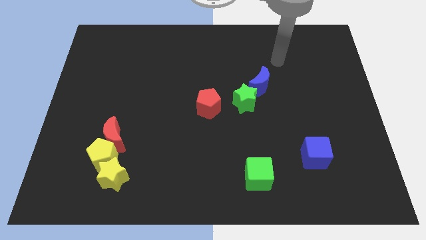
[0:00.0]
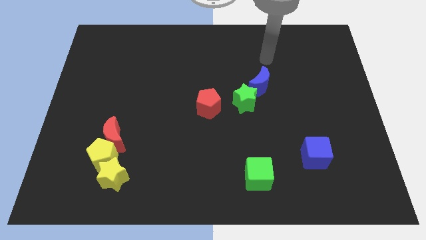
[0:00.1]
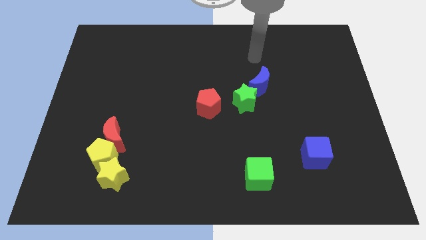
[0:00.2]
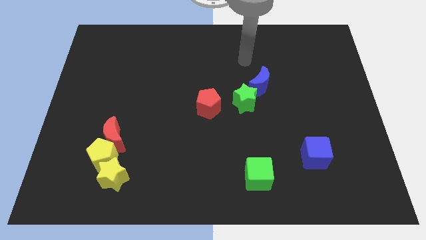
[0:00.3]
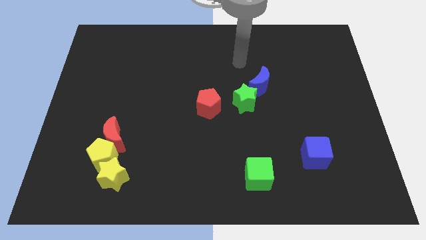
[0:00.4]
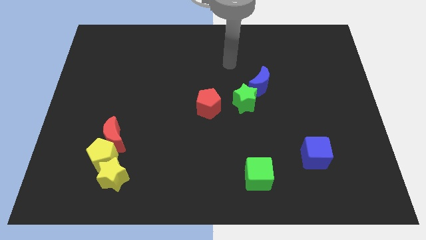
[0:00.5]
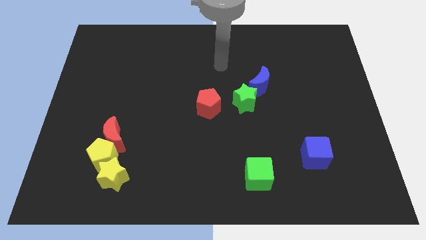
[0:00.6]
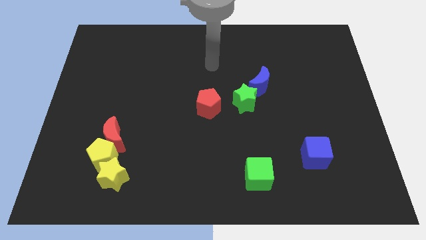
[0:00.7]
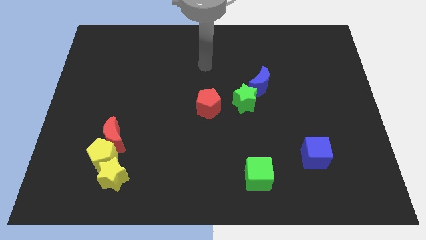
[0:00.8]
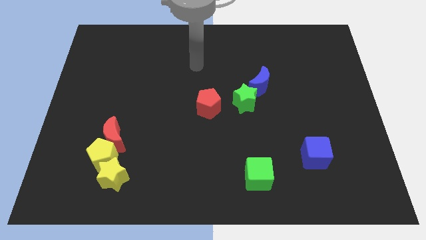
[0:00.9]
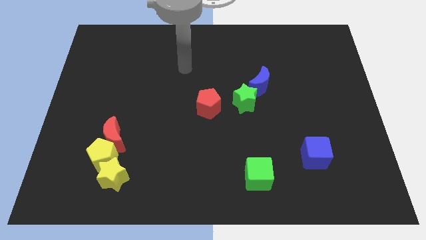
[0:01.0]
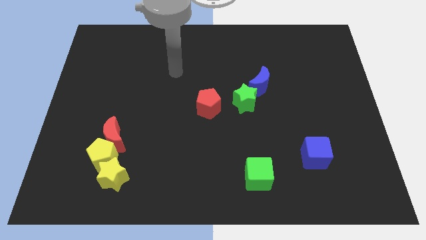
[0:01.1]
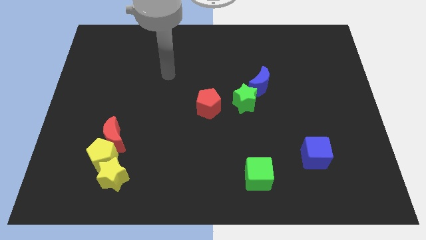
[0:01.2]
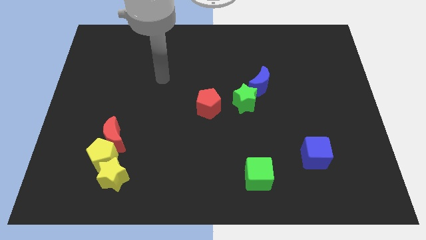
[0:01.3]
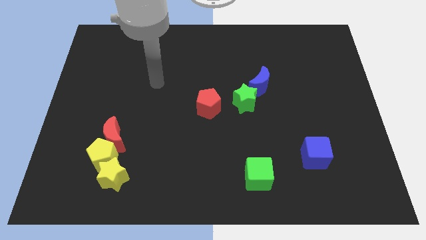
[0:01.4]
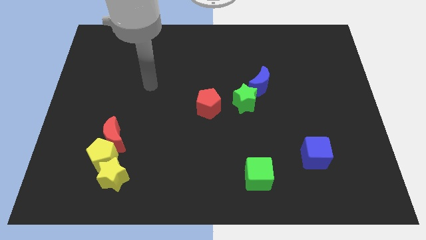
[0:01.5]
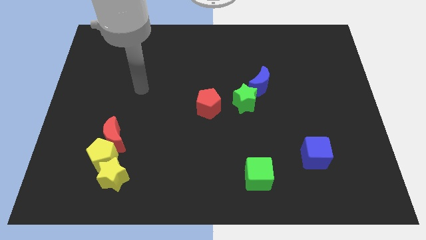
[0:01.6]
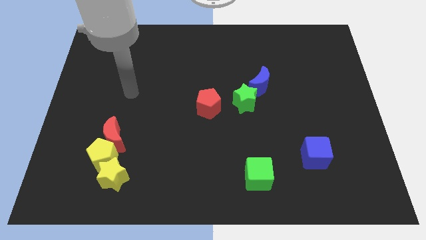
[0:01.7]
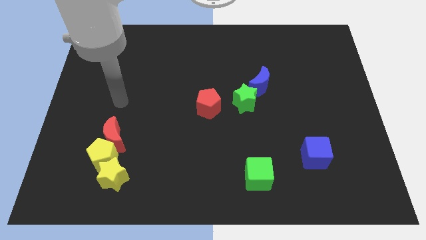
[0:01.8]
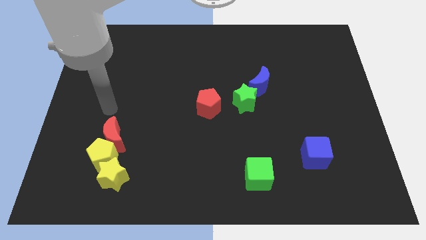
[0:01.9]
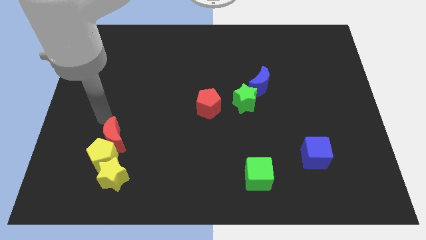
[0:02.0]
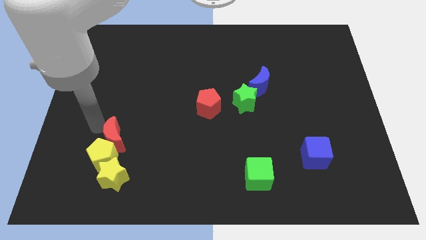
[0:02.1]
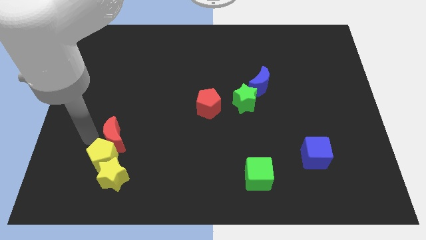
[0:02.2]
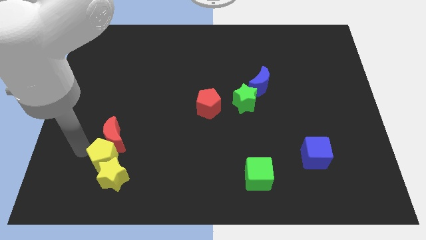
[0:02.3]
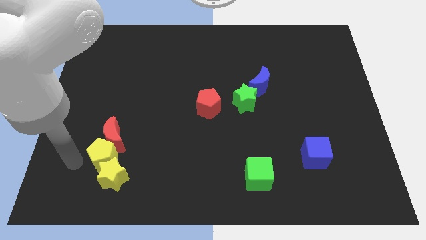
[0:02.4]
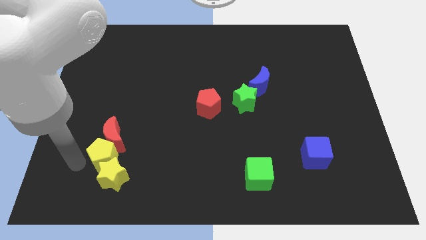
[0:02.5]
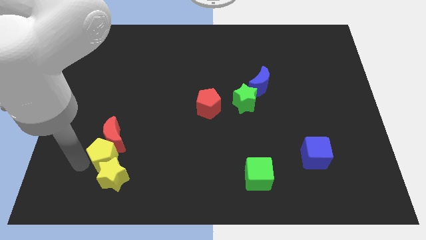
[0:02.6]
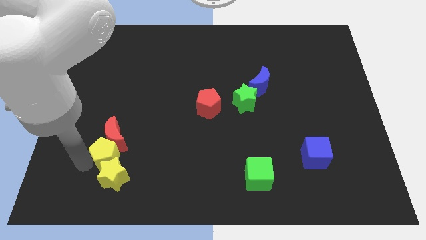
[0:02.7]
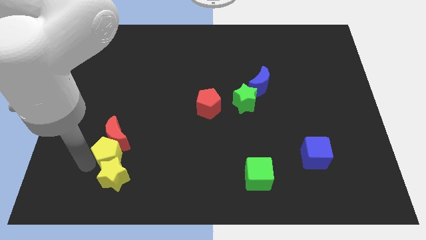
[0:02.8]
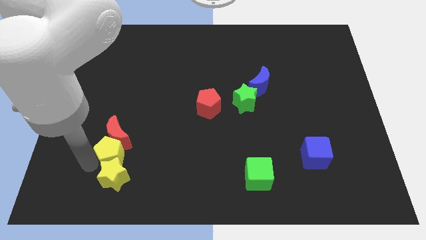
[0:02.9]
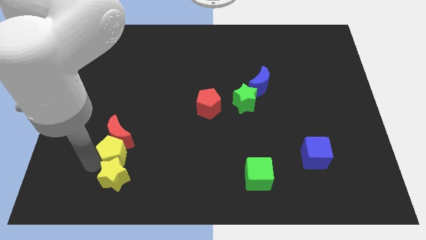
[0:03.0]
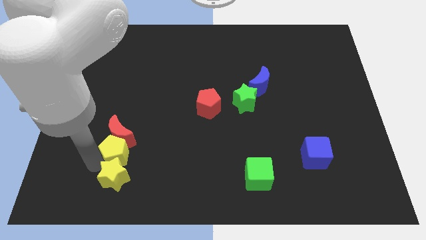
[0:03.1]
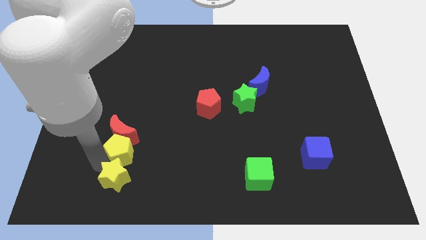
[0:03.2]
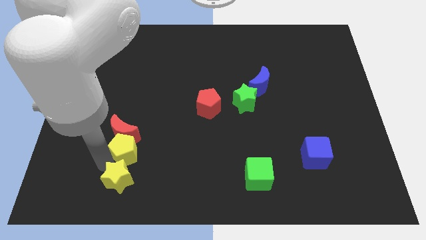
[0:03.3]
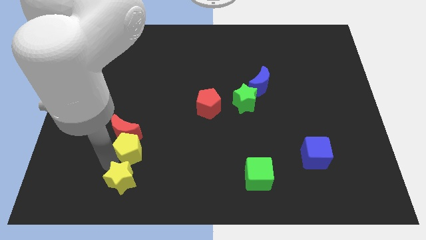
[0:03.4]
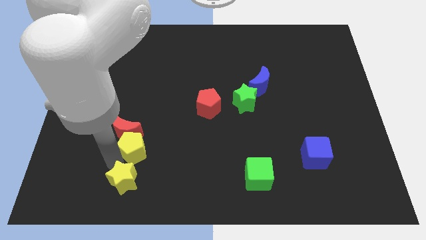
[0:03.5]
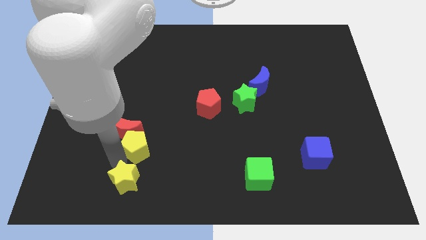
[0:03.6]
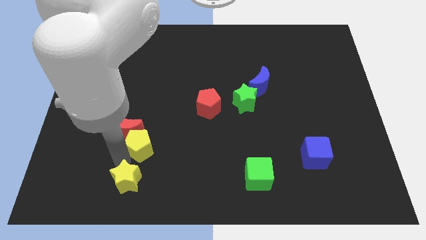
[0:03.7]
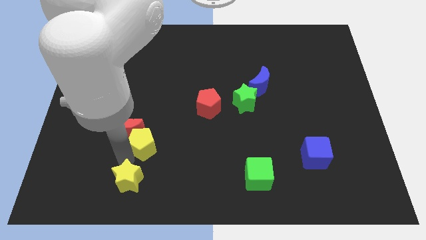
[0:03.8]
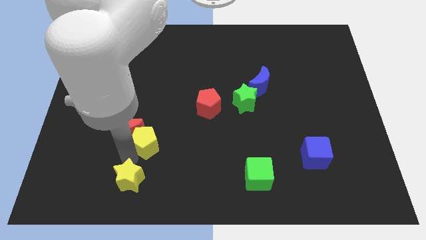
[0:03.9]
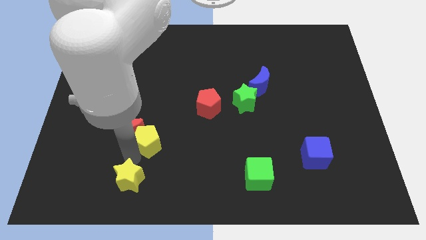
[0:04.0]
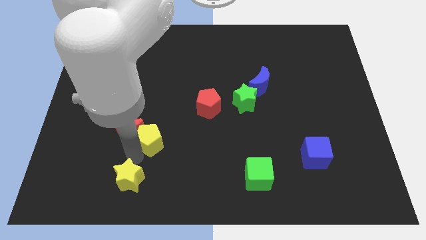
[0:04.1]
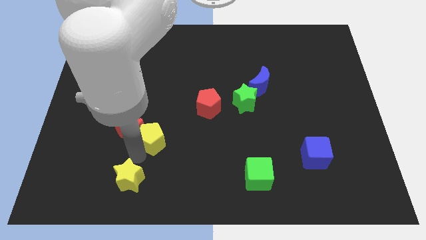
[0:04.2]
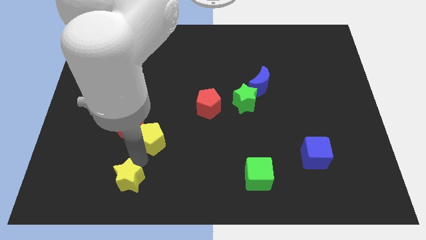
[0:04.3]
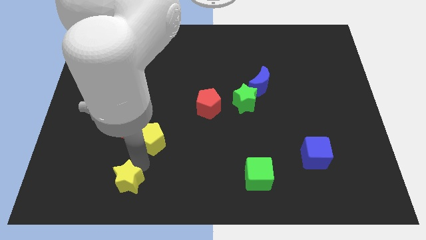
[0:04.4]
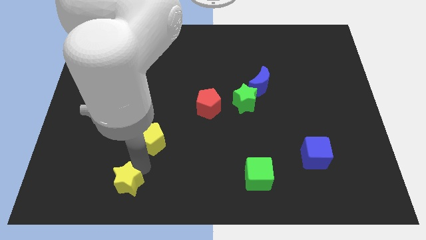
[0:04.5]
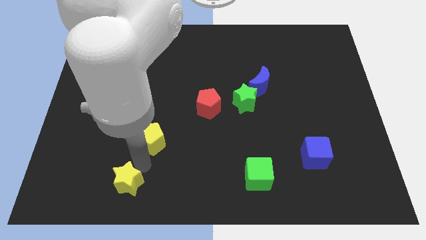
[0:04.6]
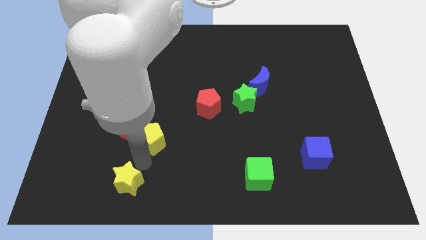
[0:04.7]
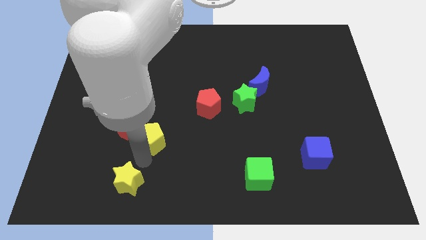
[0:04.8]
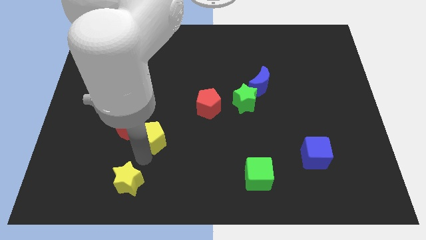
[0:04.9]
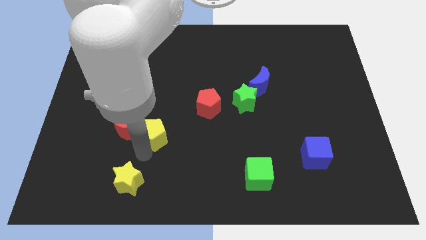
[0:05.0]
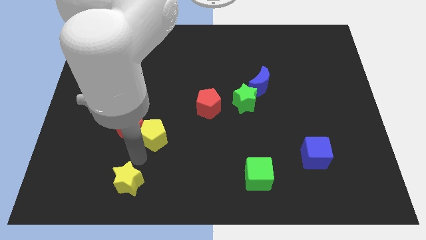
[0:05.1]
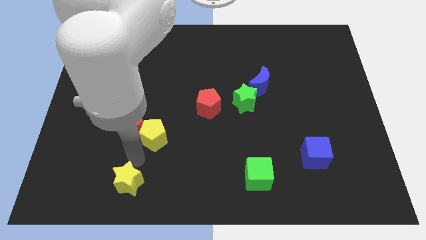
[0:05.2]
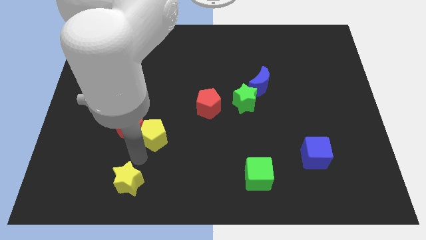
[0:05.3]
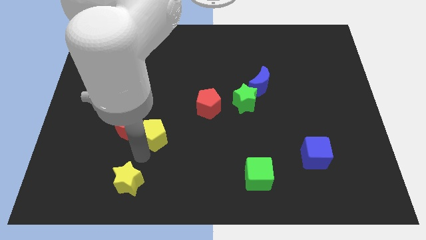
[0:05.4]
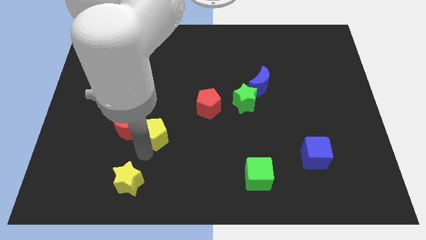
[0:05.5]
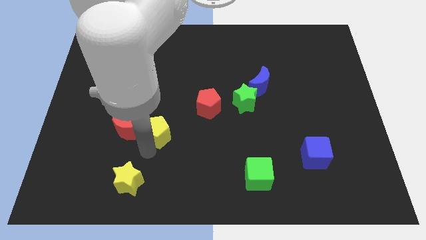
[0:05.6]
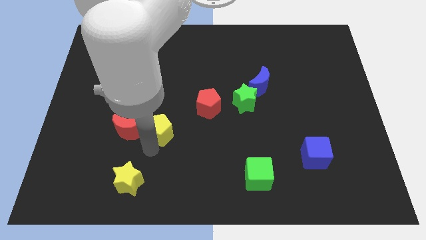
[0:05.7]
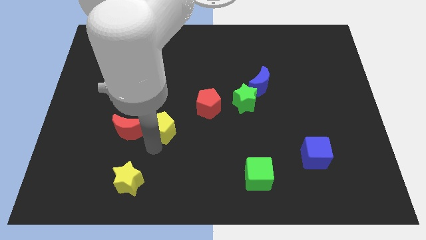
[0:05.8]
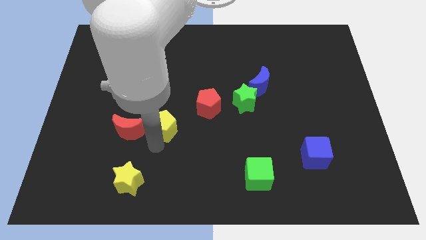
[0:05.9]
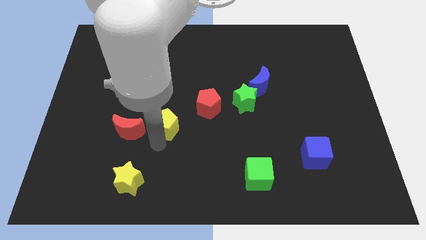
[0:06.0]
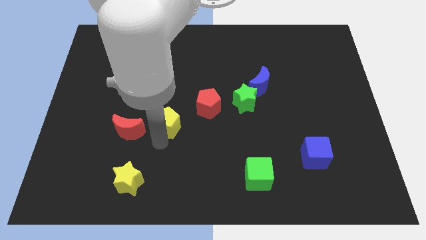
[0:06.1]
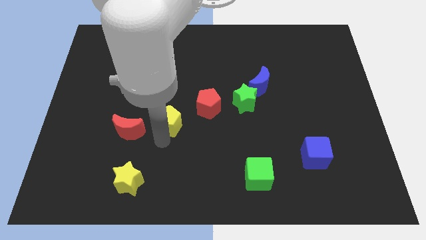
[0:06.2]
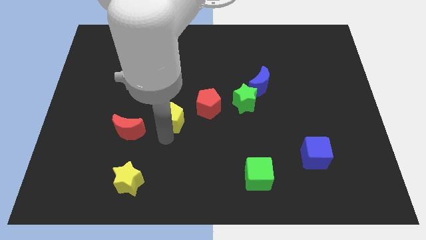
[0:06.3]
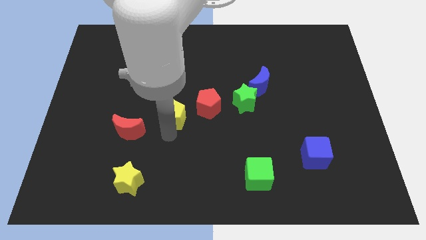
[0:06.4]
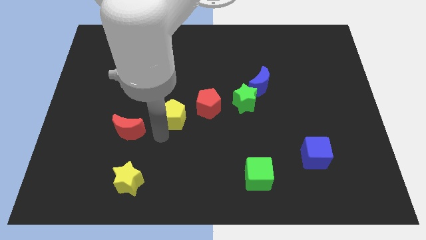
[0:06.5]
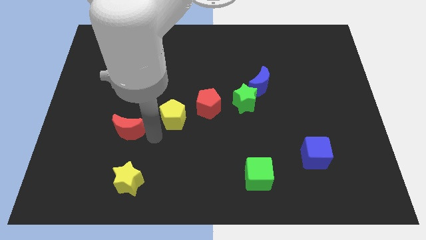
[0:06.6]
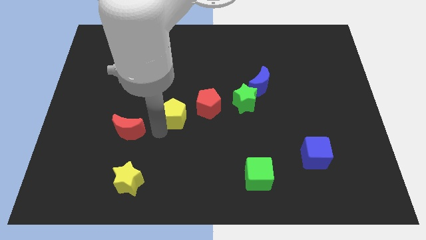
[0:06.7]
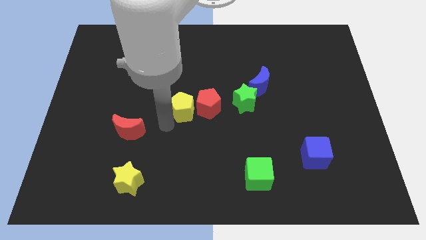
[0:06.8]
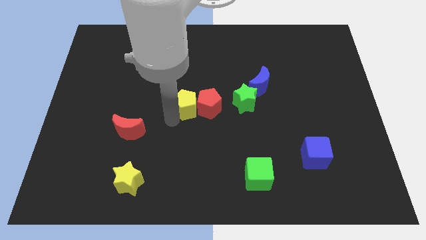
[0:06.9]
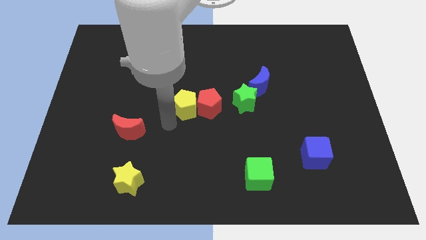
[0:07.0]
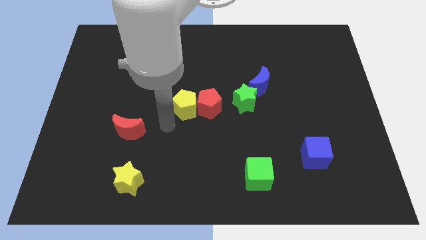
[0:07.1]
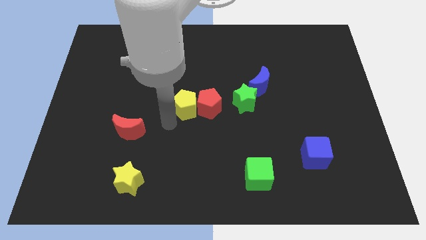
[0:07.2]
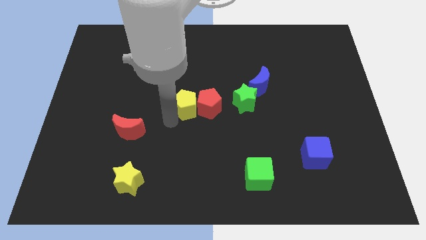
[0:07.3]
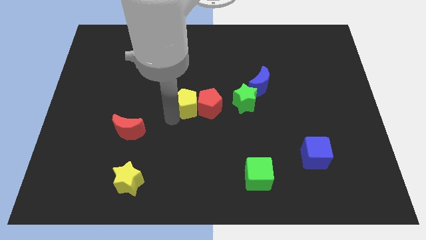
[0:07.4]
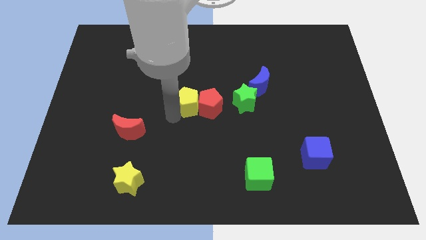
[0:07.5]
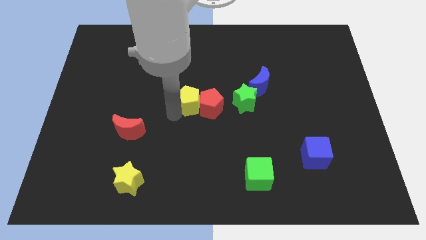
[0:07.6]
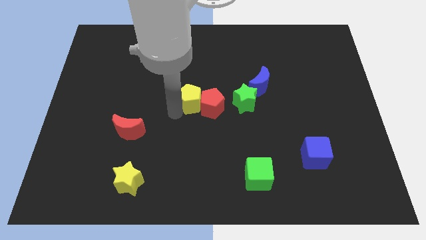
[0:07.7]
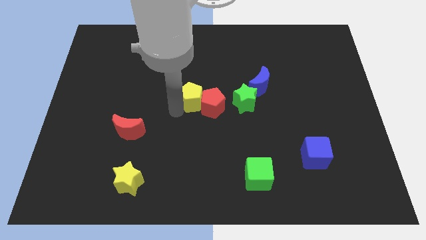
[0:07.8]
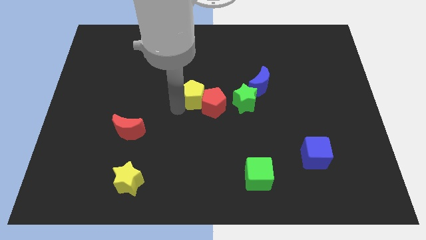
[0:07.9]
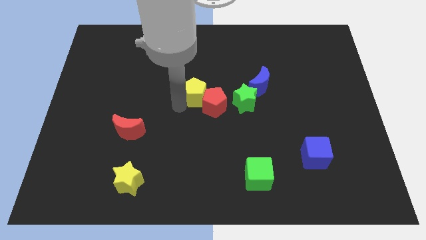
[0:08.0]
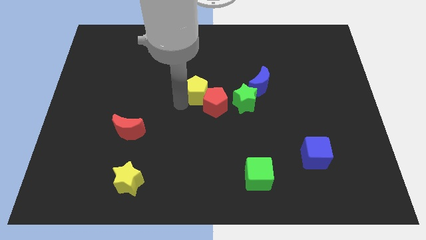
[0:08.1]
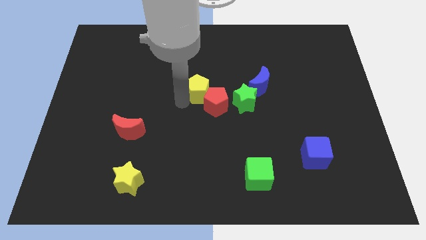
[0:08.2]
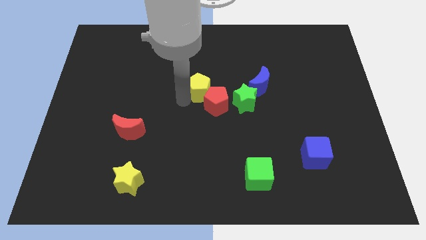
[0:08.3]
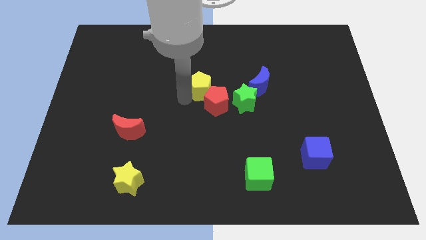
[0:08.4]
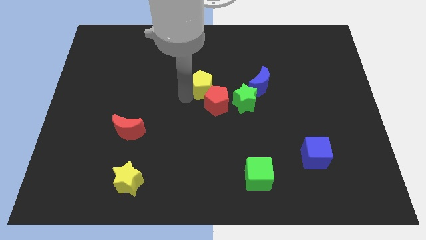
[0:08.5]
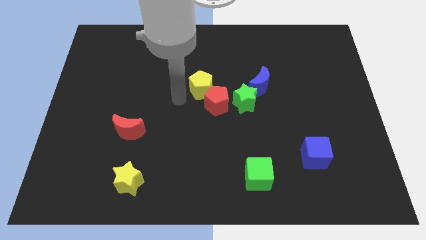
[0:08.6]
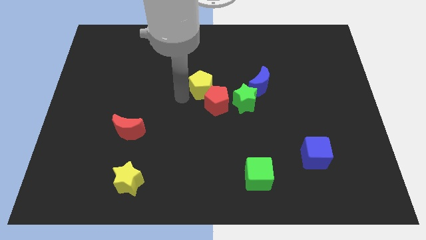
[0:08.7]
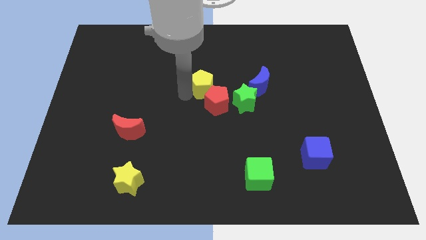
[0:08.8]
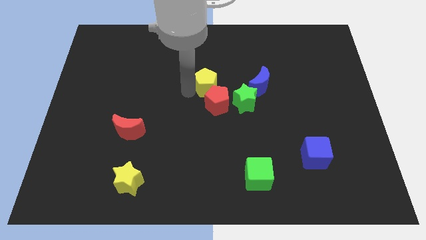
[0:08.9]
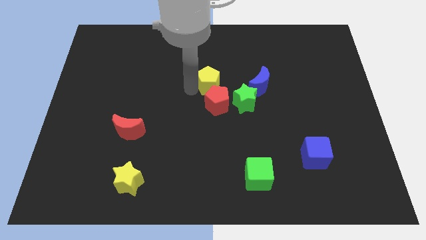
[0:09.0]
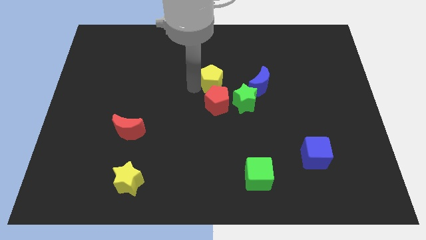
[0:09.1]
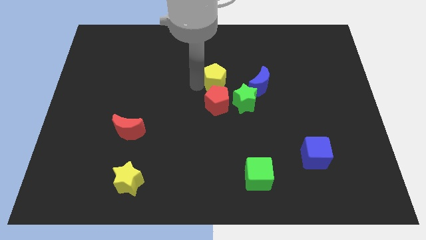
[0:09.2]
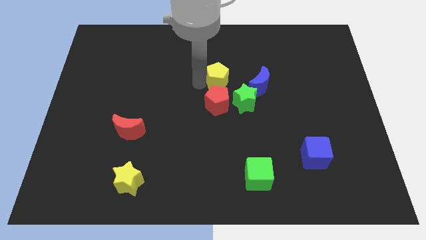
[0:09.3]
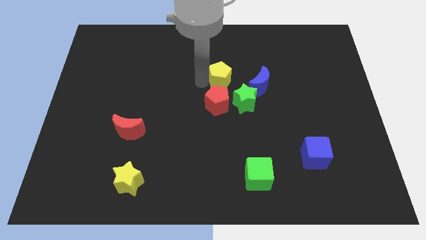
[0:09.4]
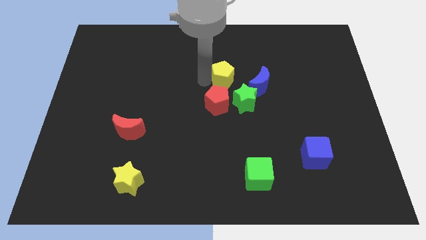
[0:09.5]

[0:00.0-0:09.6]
move the yellow pentagon diagonally up and to the left of the blue moon
